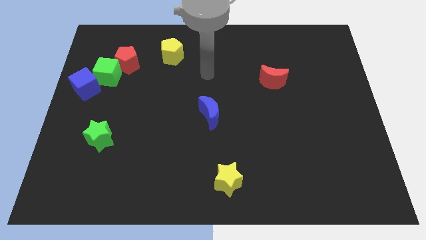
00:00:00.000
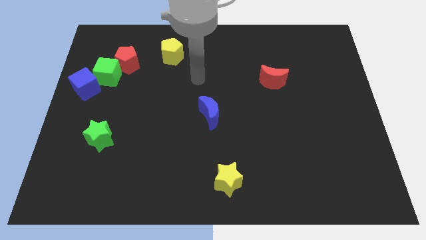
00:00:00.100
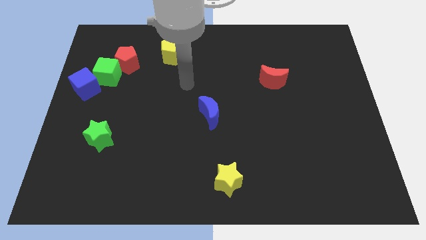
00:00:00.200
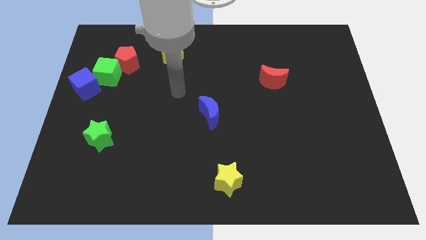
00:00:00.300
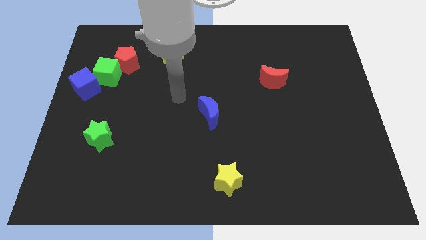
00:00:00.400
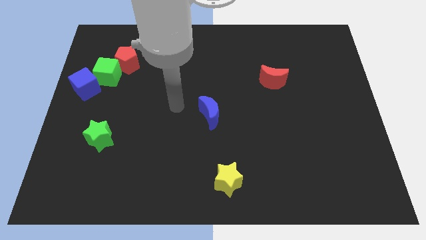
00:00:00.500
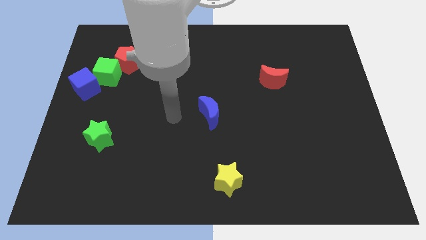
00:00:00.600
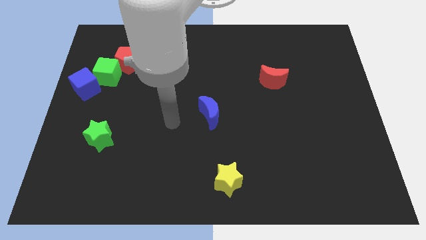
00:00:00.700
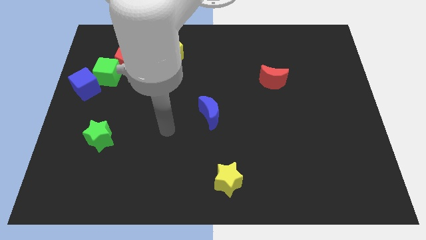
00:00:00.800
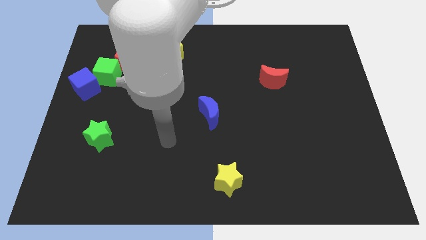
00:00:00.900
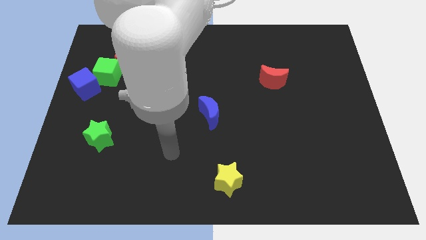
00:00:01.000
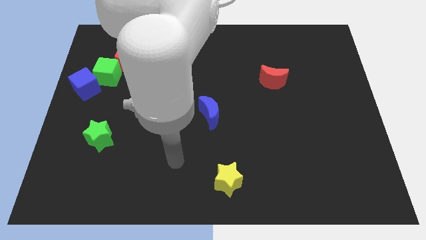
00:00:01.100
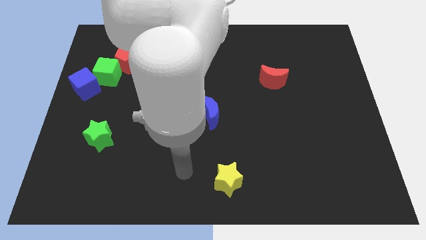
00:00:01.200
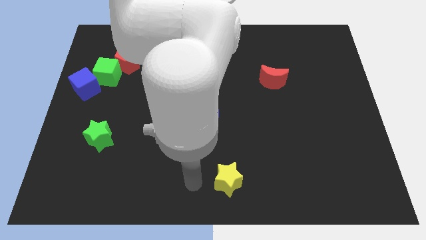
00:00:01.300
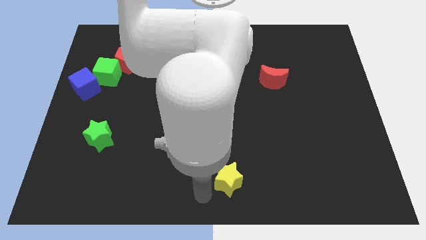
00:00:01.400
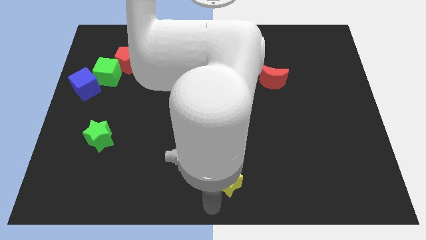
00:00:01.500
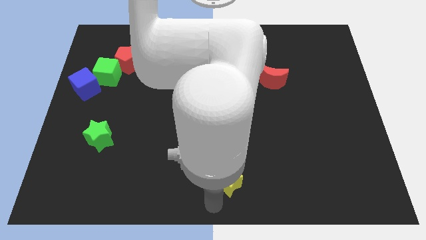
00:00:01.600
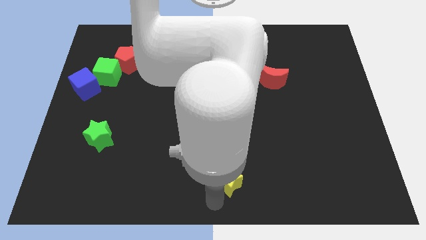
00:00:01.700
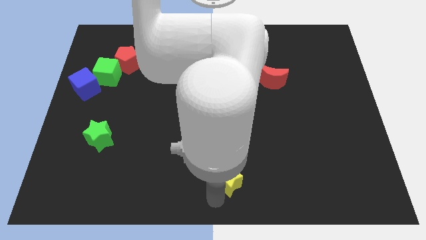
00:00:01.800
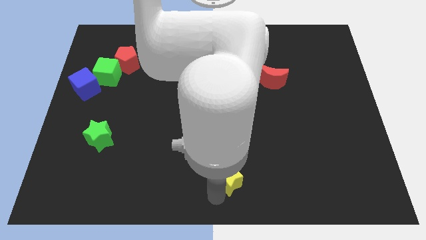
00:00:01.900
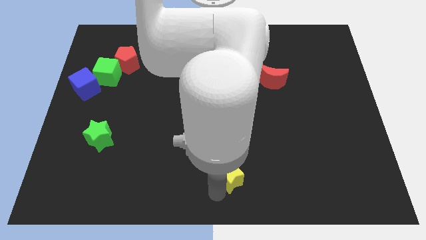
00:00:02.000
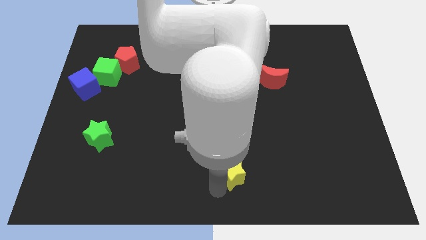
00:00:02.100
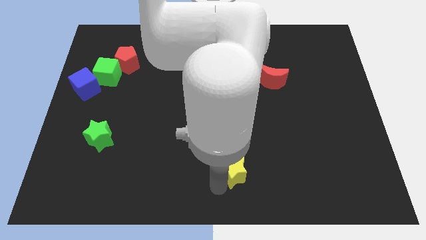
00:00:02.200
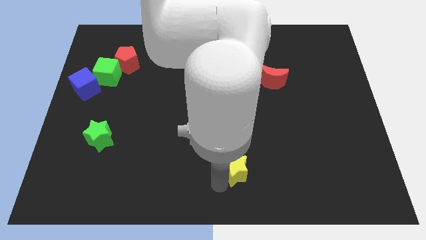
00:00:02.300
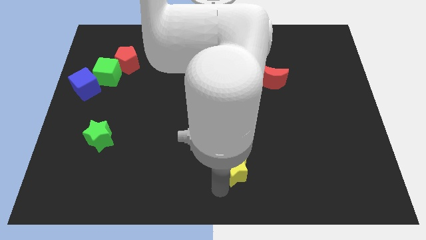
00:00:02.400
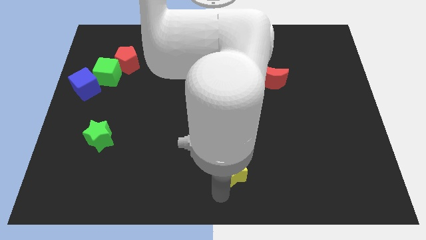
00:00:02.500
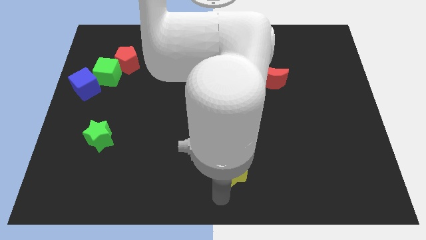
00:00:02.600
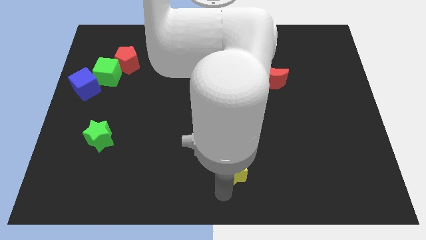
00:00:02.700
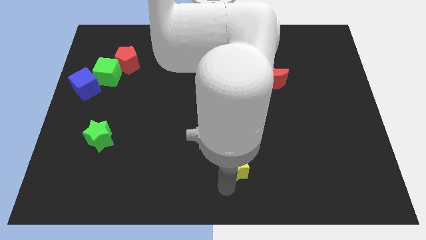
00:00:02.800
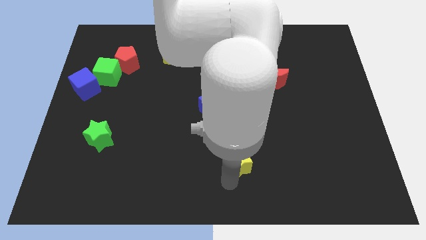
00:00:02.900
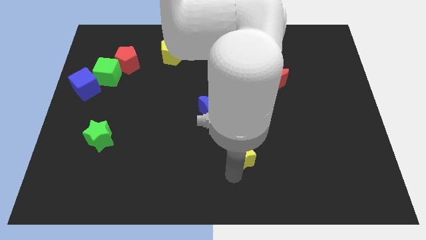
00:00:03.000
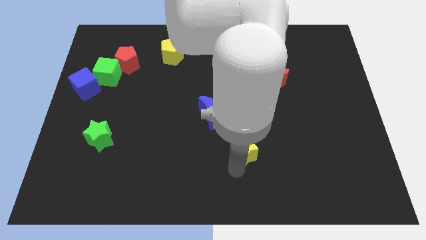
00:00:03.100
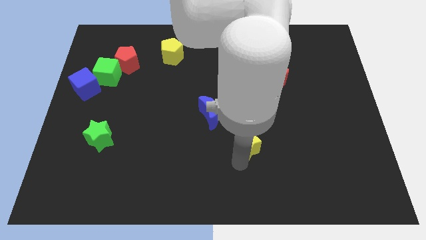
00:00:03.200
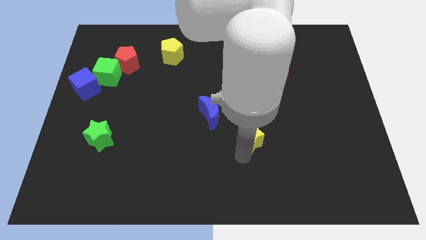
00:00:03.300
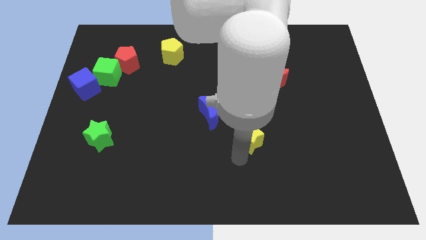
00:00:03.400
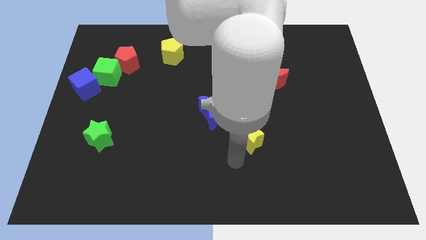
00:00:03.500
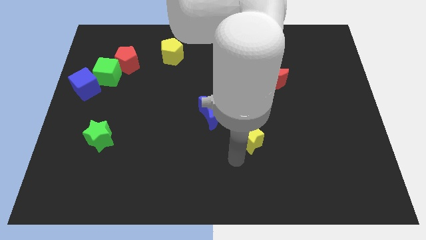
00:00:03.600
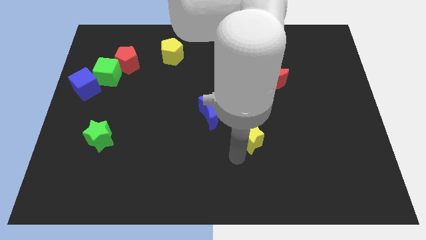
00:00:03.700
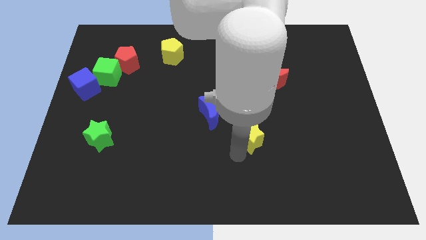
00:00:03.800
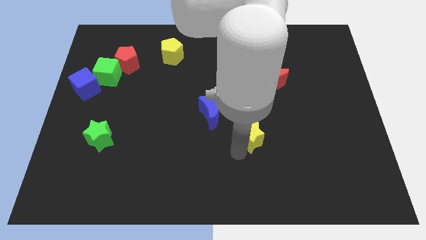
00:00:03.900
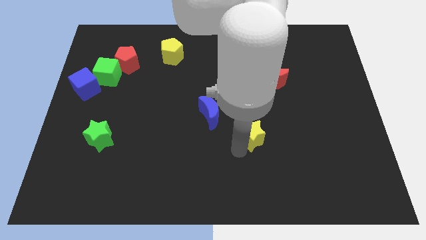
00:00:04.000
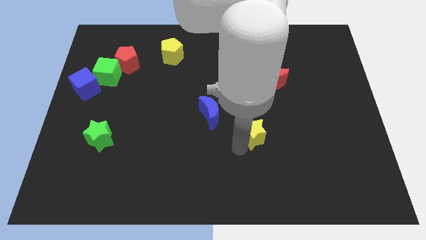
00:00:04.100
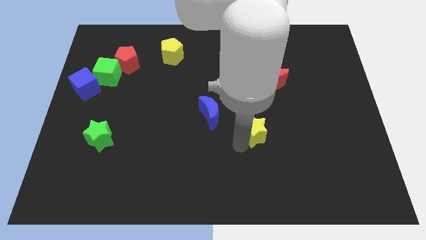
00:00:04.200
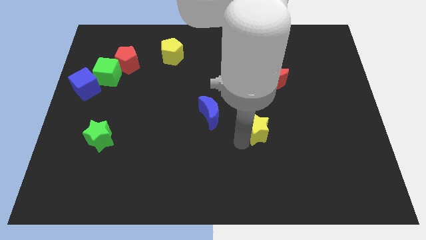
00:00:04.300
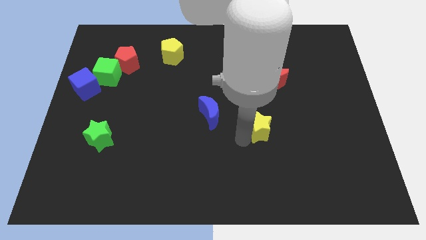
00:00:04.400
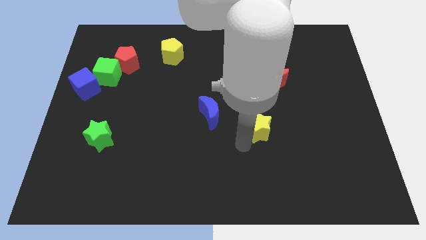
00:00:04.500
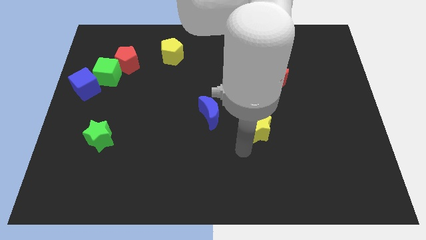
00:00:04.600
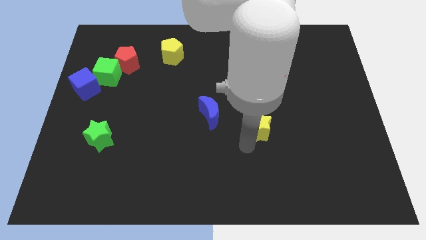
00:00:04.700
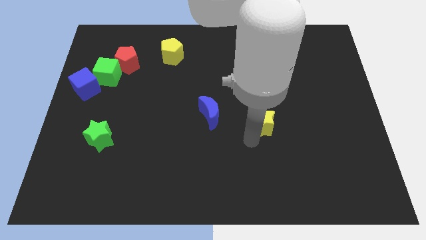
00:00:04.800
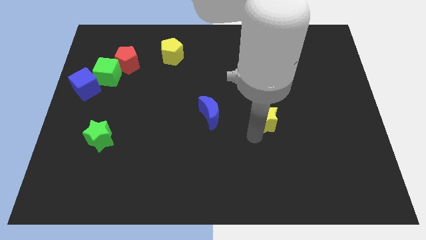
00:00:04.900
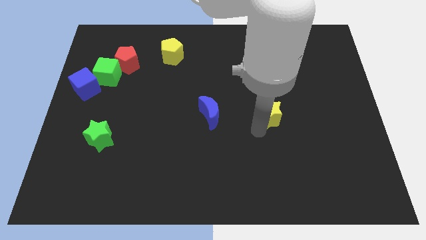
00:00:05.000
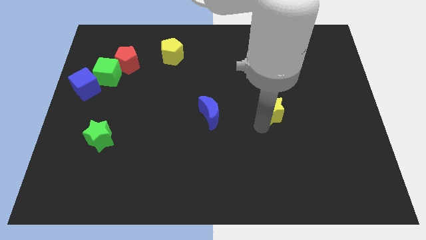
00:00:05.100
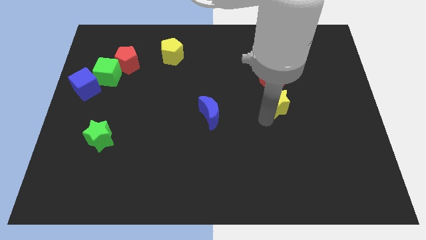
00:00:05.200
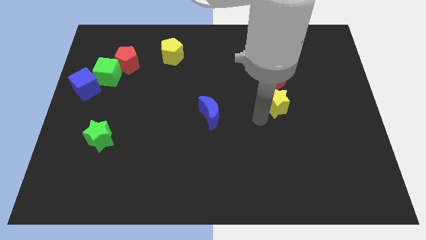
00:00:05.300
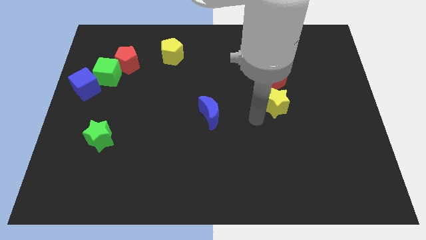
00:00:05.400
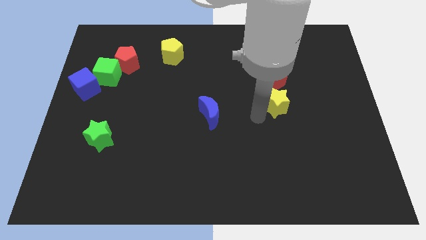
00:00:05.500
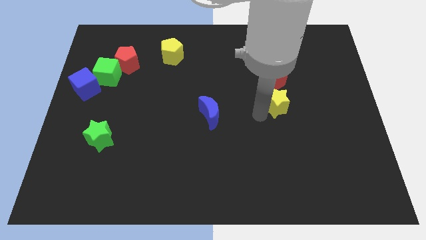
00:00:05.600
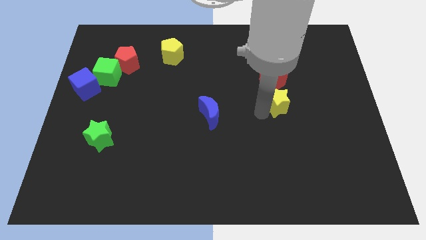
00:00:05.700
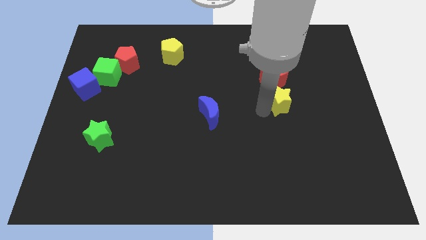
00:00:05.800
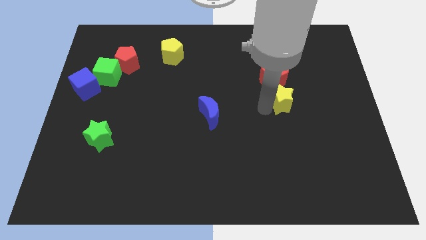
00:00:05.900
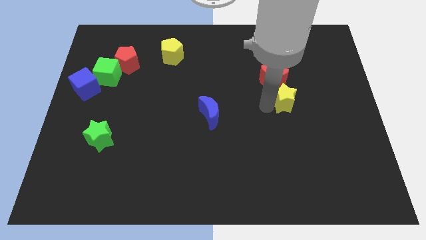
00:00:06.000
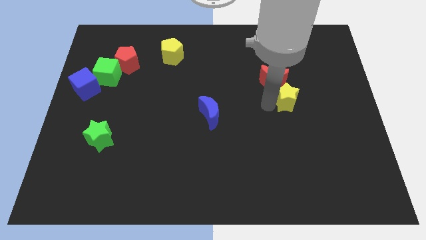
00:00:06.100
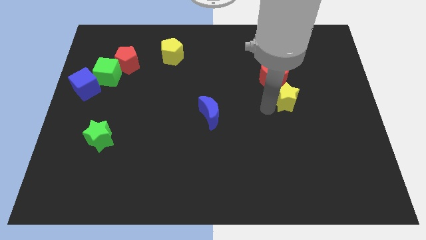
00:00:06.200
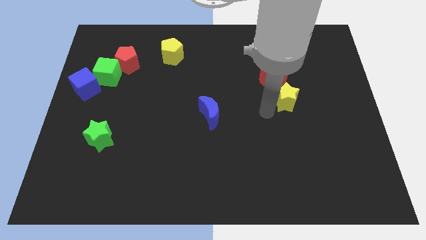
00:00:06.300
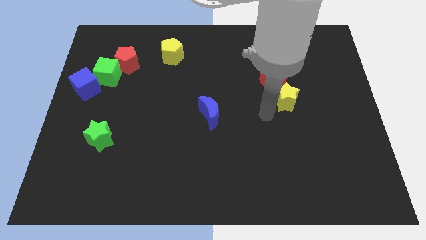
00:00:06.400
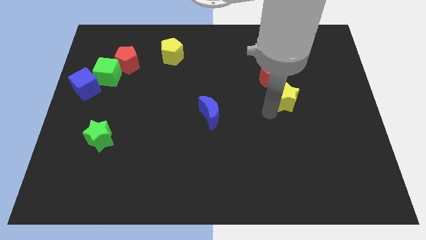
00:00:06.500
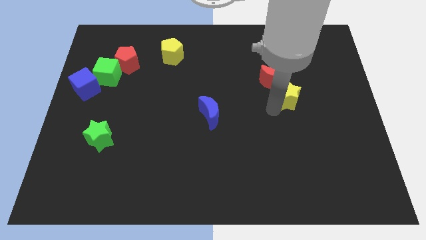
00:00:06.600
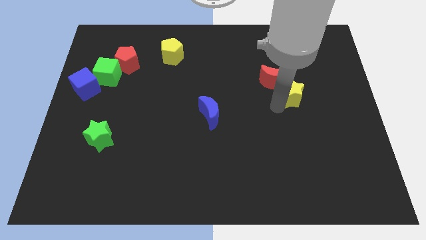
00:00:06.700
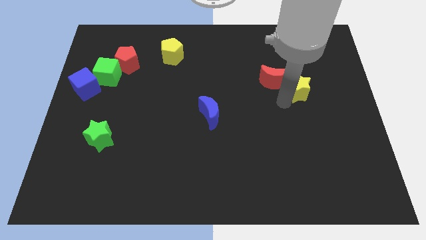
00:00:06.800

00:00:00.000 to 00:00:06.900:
put the yellow star to the right side of the red moon

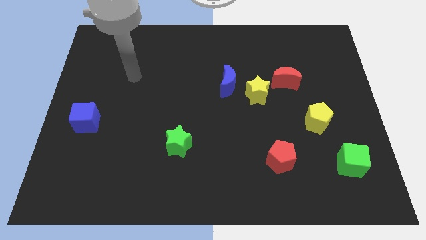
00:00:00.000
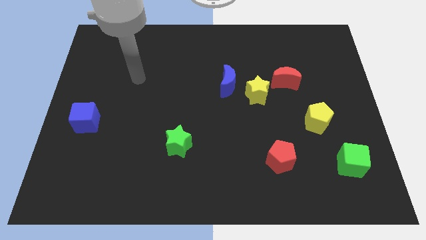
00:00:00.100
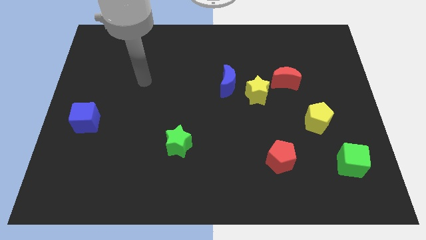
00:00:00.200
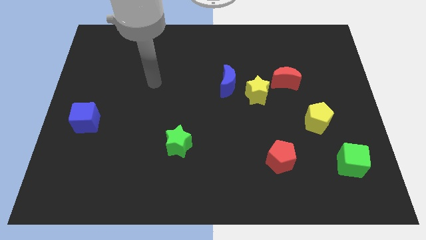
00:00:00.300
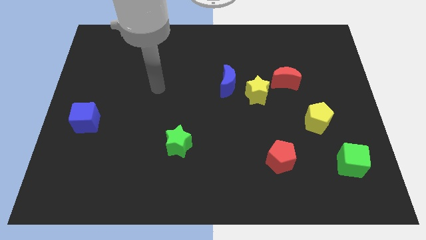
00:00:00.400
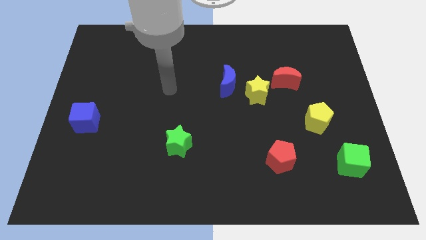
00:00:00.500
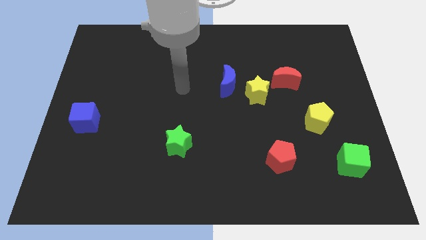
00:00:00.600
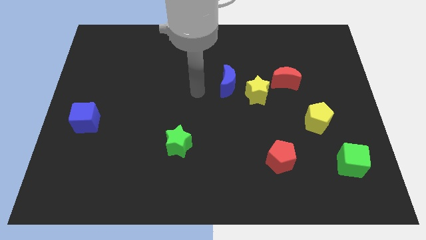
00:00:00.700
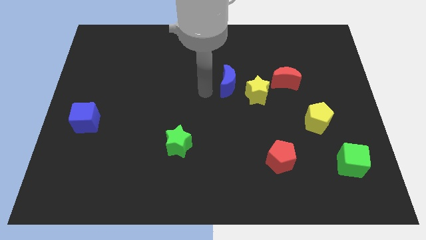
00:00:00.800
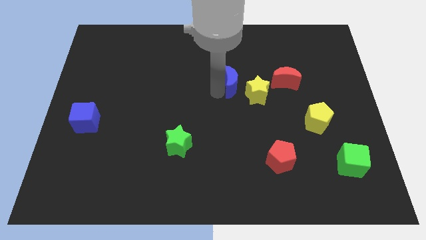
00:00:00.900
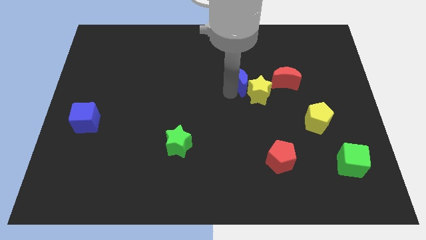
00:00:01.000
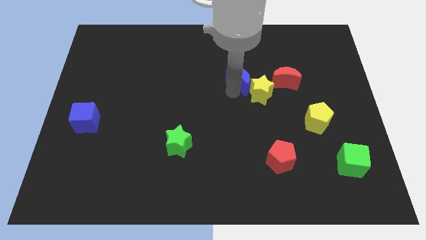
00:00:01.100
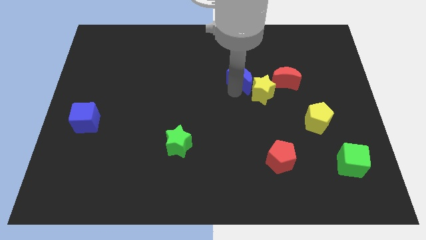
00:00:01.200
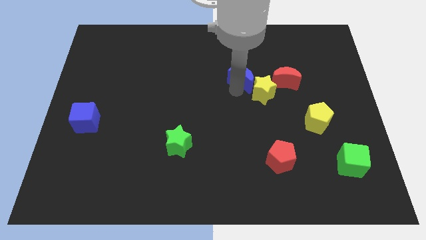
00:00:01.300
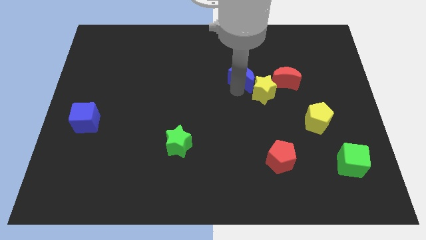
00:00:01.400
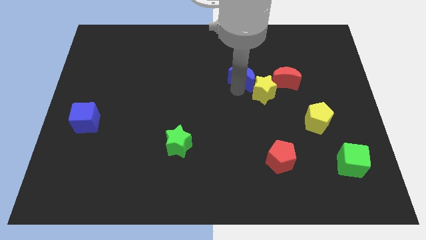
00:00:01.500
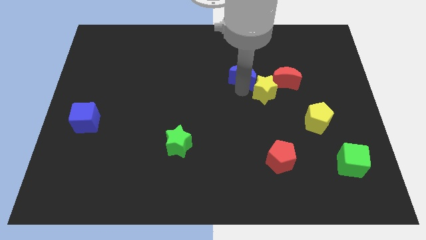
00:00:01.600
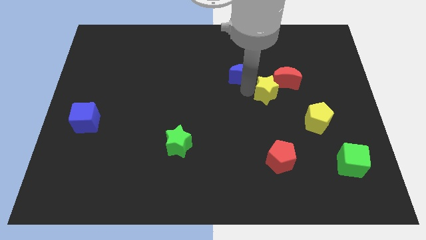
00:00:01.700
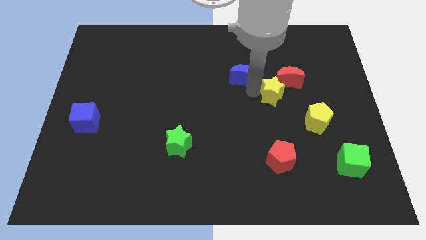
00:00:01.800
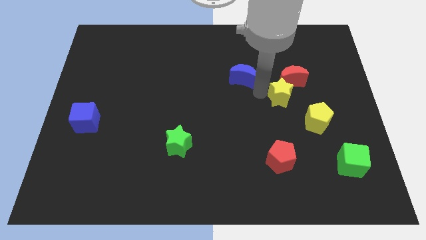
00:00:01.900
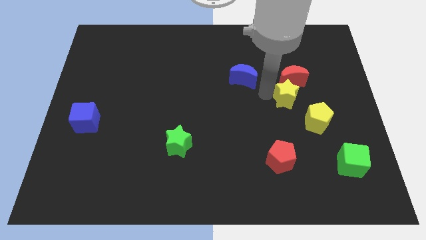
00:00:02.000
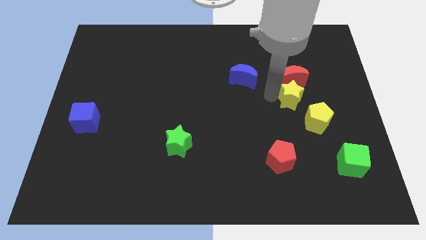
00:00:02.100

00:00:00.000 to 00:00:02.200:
put the yellow star to the top of the yellow pentagon
